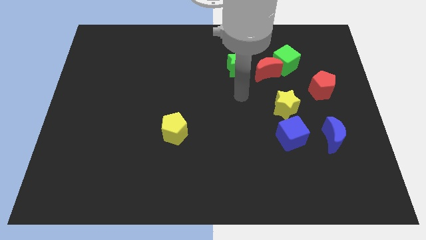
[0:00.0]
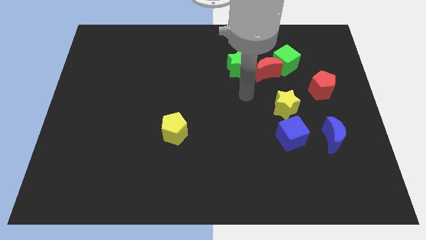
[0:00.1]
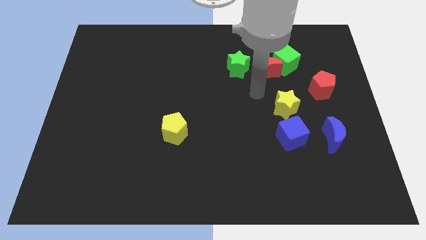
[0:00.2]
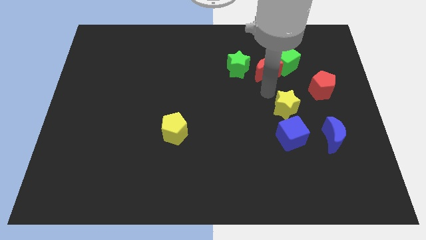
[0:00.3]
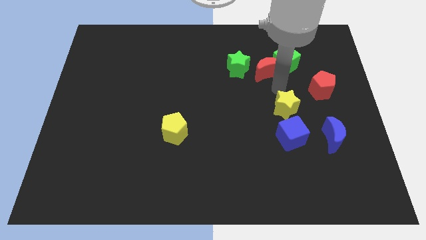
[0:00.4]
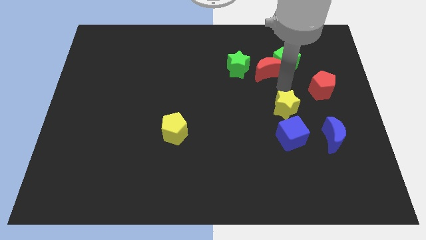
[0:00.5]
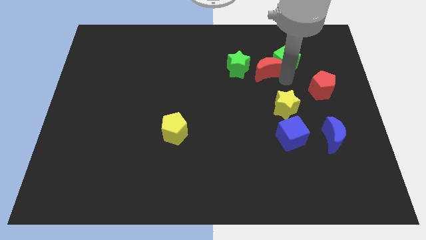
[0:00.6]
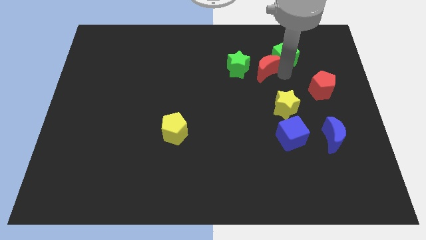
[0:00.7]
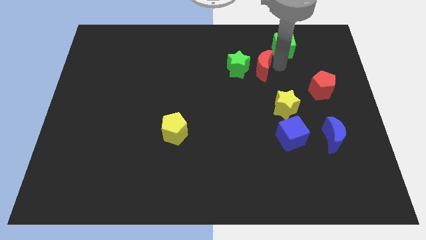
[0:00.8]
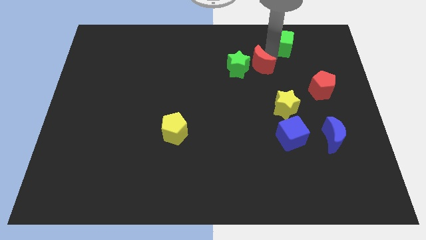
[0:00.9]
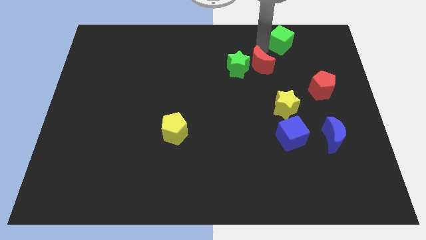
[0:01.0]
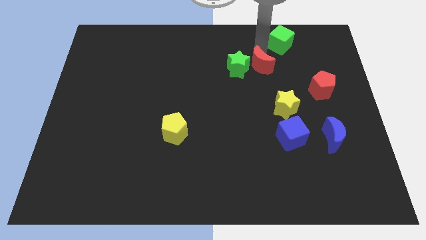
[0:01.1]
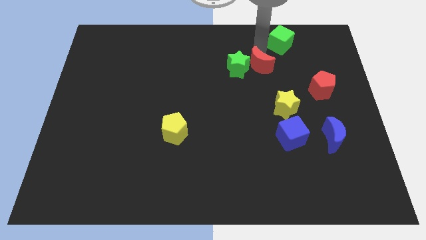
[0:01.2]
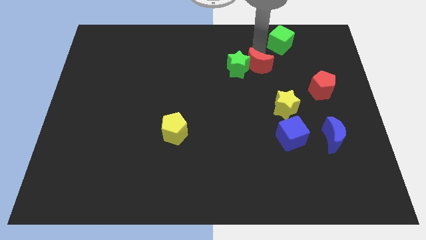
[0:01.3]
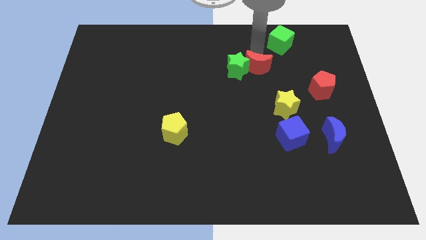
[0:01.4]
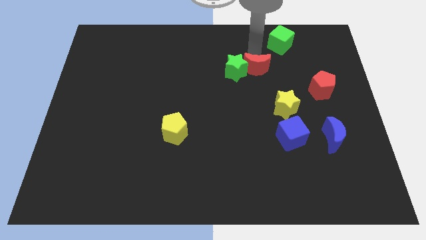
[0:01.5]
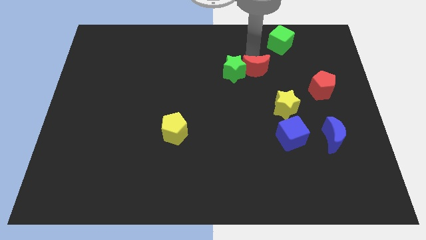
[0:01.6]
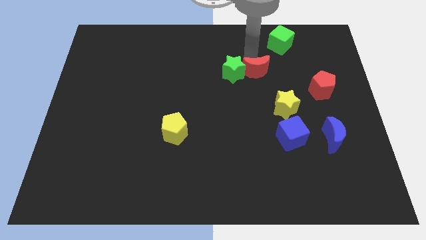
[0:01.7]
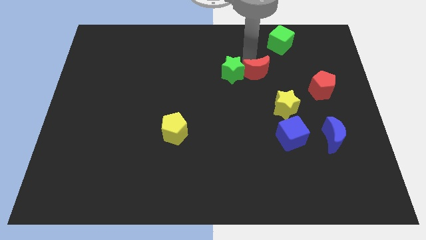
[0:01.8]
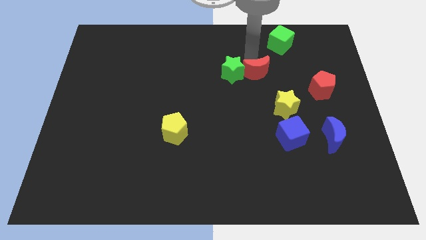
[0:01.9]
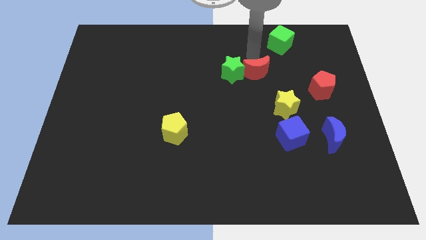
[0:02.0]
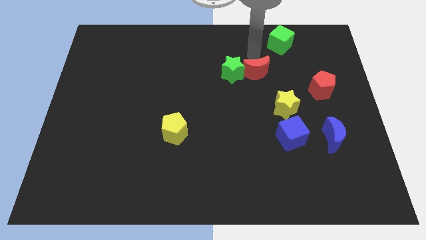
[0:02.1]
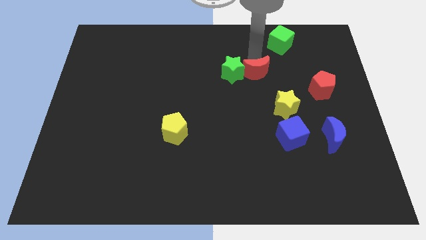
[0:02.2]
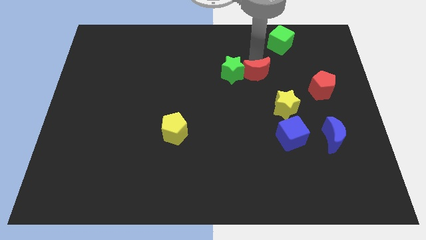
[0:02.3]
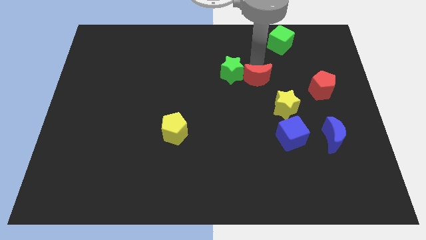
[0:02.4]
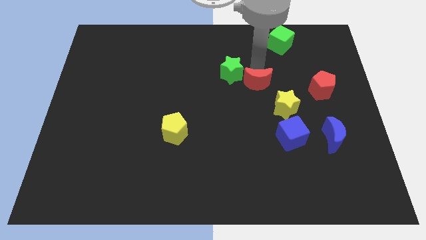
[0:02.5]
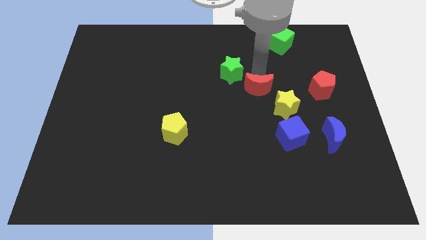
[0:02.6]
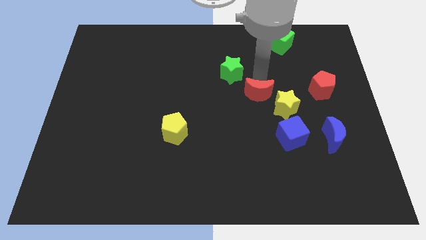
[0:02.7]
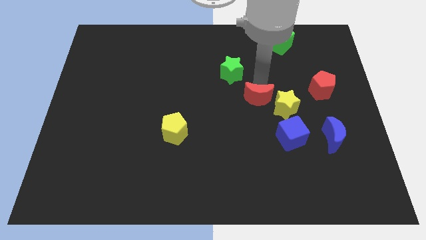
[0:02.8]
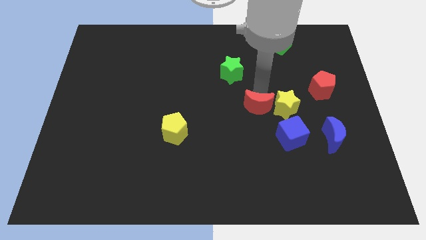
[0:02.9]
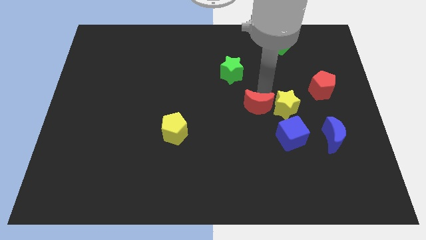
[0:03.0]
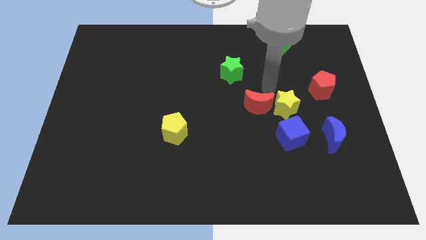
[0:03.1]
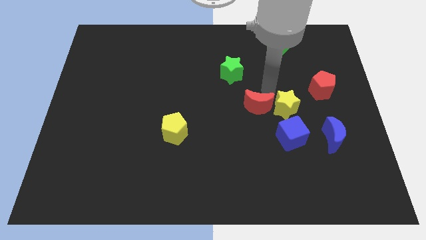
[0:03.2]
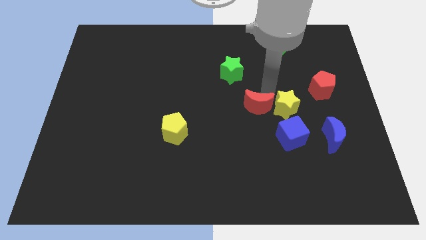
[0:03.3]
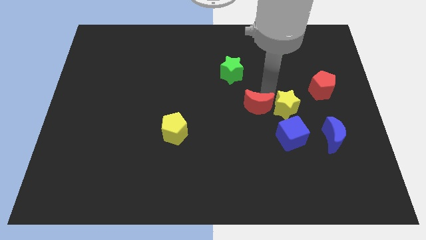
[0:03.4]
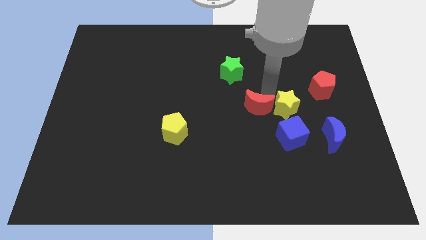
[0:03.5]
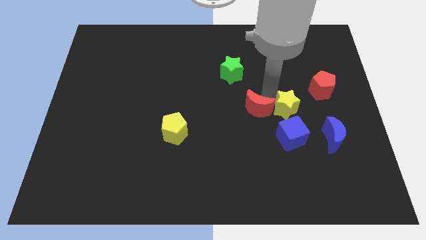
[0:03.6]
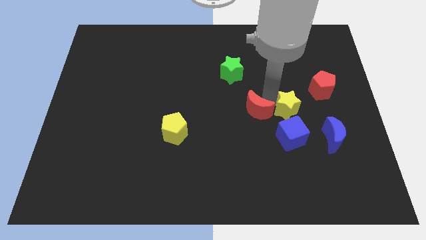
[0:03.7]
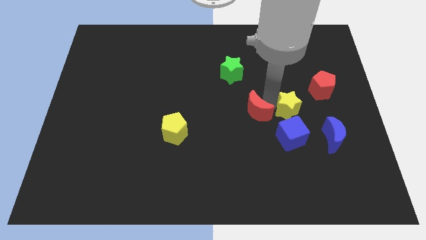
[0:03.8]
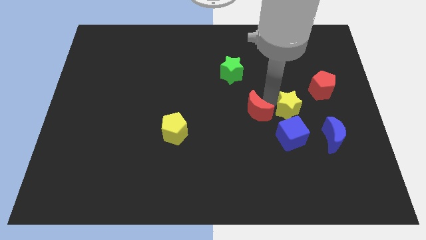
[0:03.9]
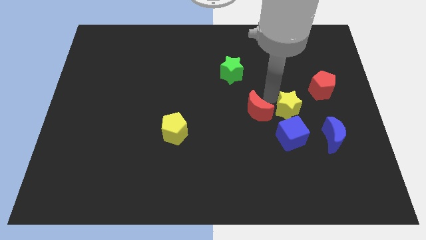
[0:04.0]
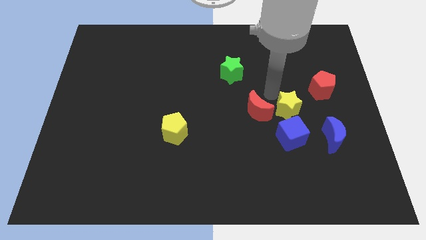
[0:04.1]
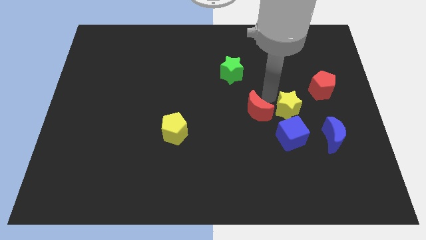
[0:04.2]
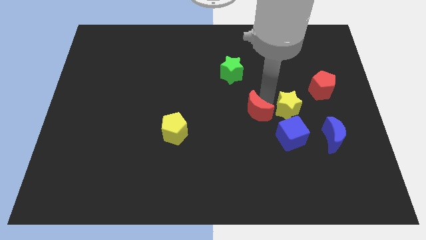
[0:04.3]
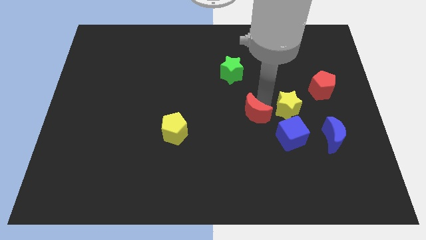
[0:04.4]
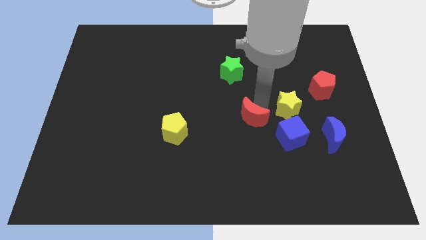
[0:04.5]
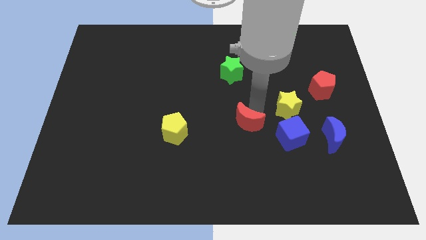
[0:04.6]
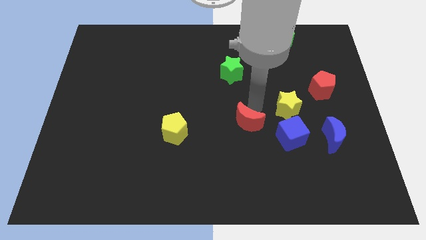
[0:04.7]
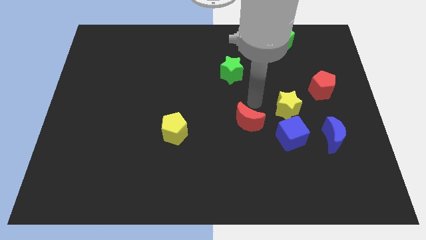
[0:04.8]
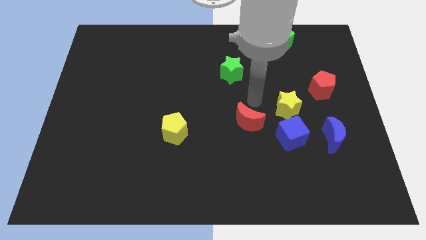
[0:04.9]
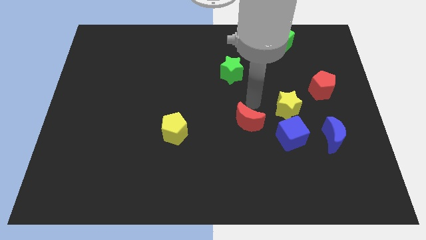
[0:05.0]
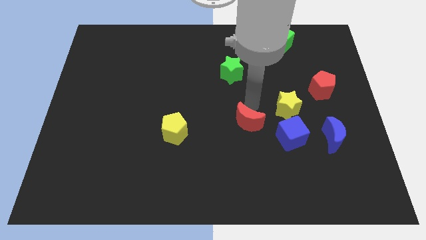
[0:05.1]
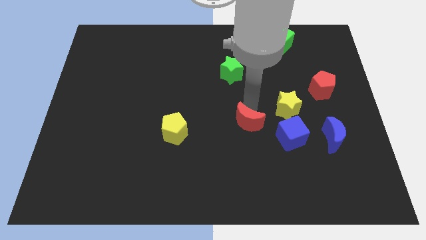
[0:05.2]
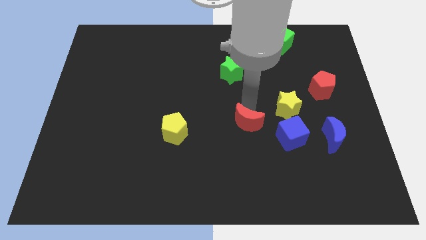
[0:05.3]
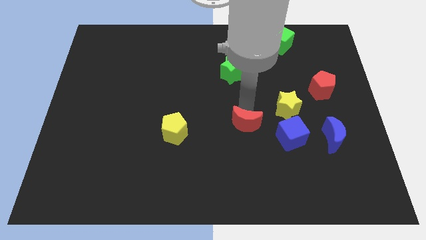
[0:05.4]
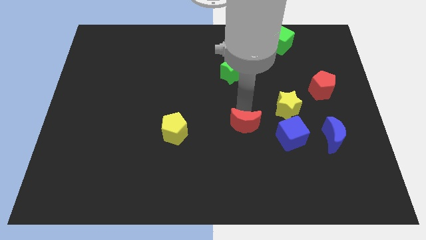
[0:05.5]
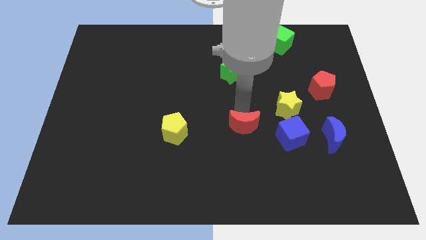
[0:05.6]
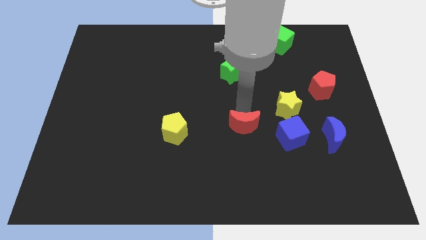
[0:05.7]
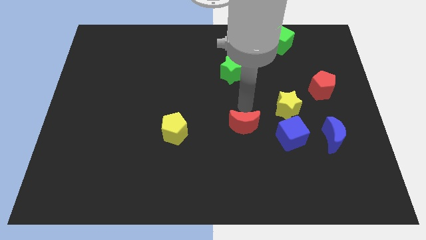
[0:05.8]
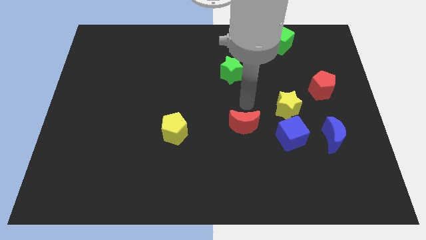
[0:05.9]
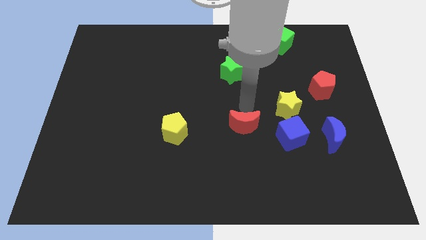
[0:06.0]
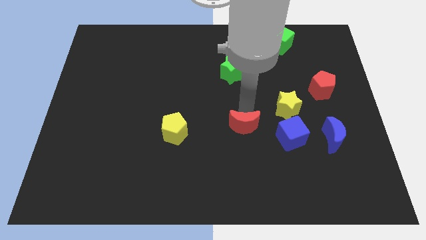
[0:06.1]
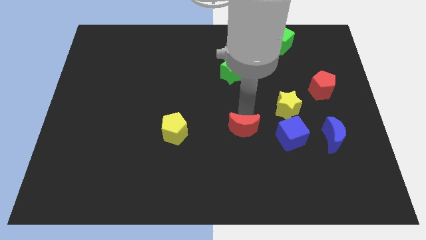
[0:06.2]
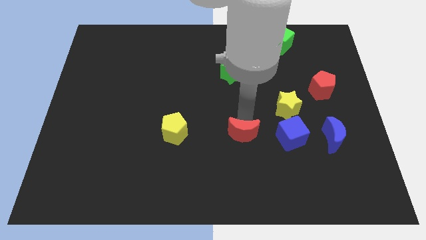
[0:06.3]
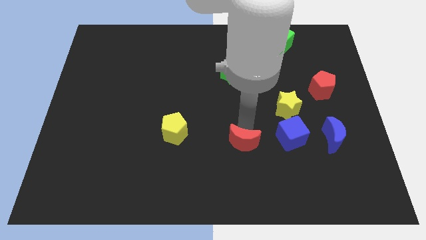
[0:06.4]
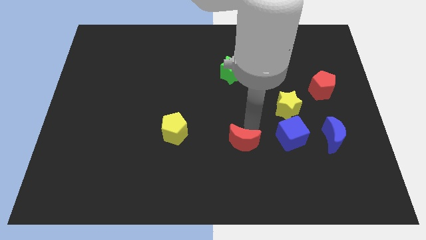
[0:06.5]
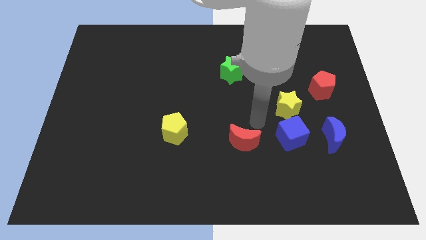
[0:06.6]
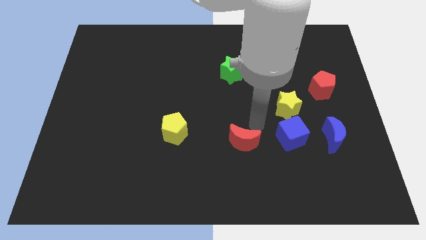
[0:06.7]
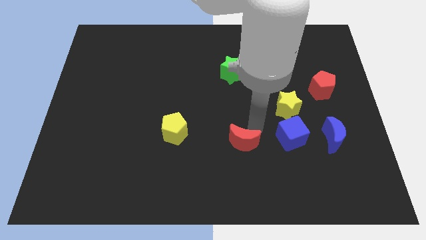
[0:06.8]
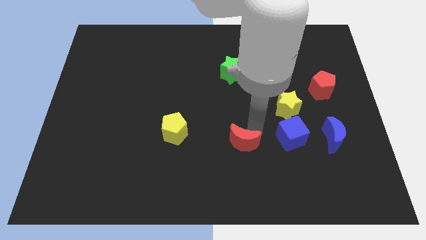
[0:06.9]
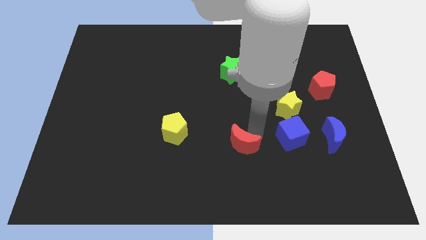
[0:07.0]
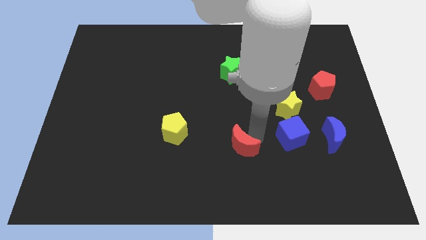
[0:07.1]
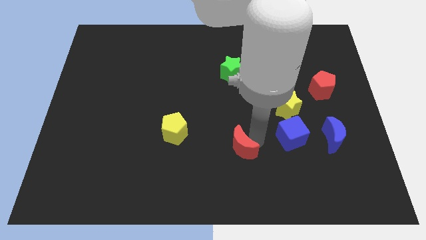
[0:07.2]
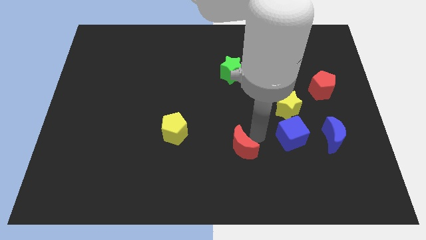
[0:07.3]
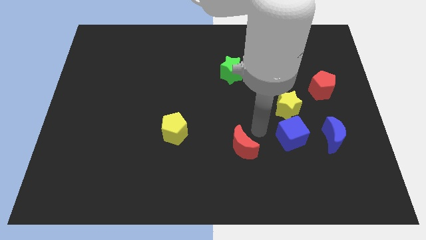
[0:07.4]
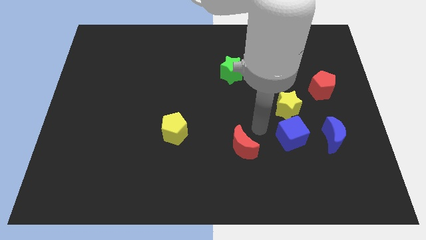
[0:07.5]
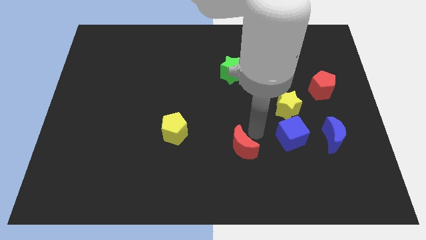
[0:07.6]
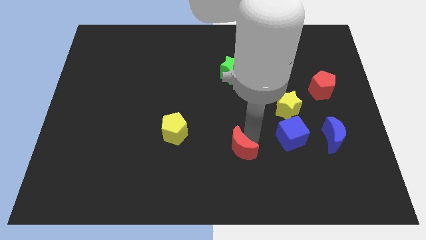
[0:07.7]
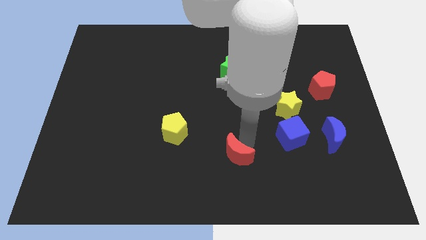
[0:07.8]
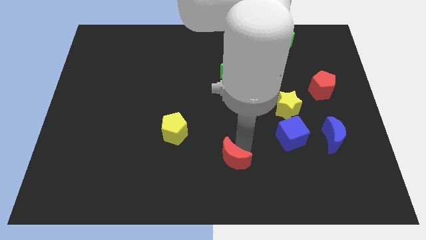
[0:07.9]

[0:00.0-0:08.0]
move the red moon to the bottom
